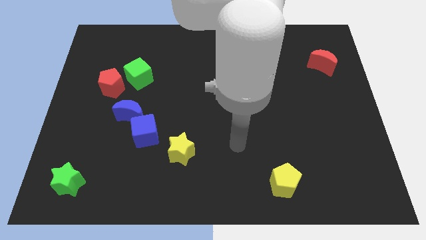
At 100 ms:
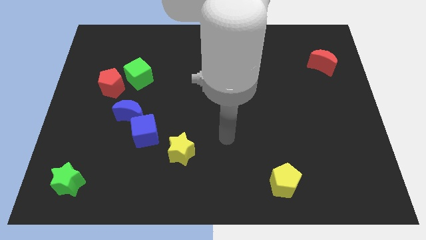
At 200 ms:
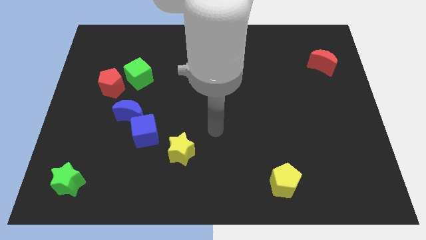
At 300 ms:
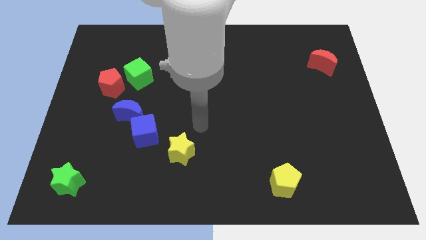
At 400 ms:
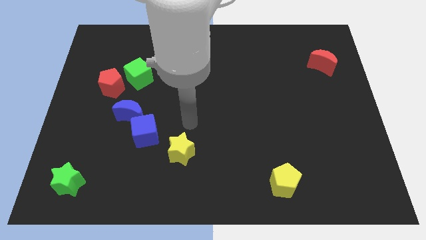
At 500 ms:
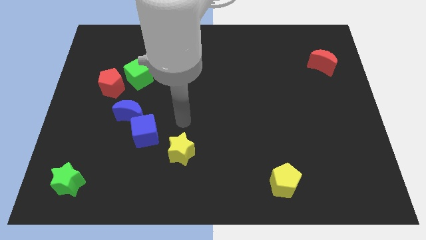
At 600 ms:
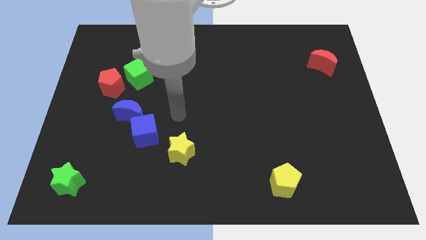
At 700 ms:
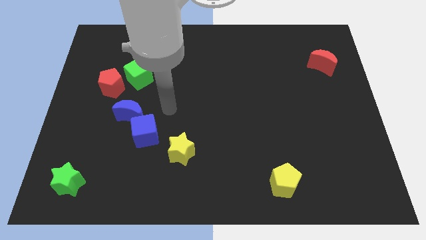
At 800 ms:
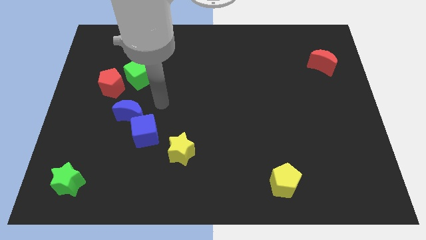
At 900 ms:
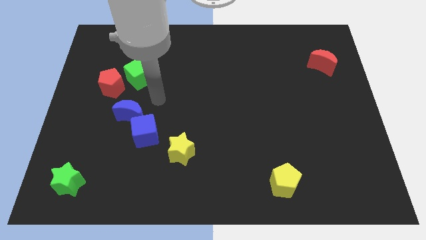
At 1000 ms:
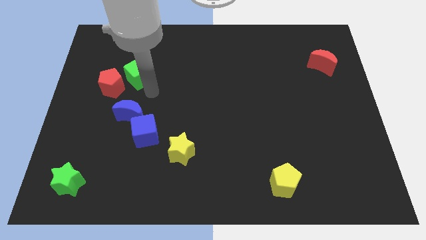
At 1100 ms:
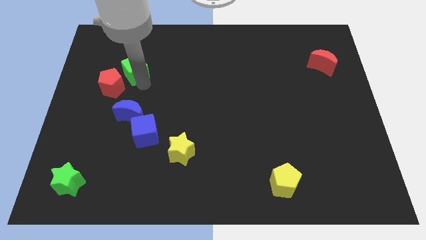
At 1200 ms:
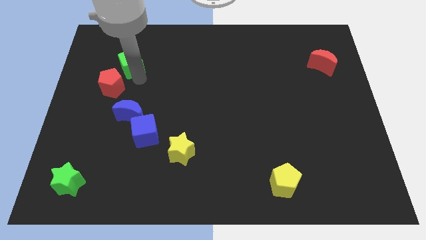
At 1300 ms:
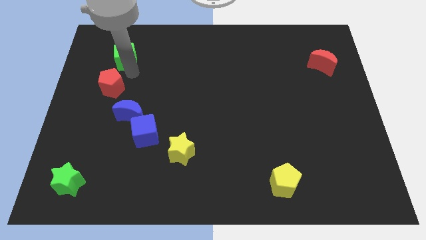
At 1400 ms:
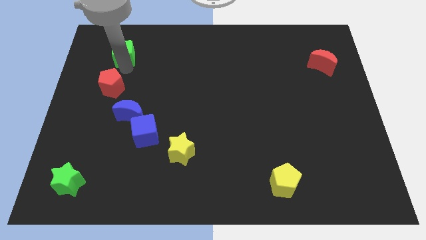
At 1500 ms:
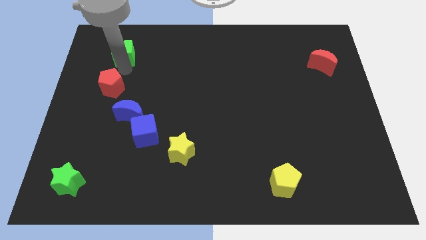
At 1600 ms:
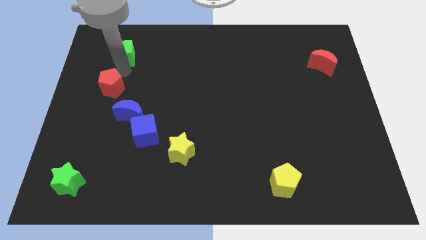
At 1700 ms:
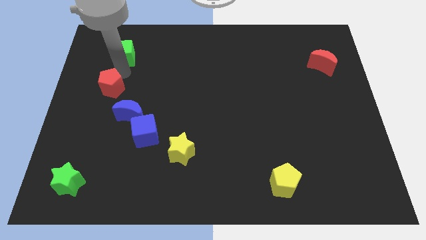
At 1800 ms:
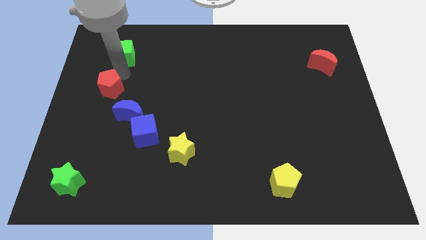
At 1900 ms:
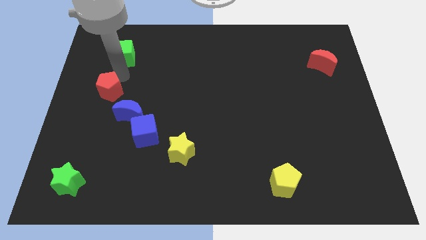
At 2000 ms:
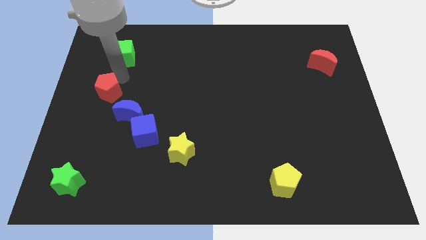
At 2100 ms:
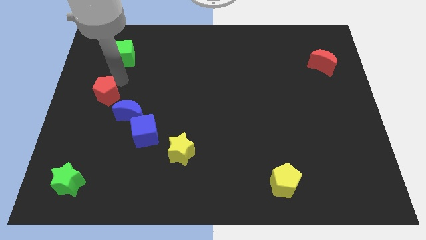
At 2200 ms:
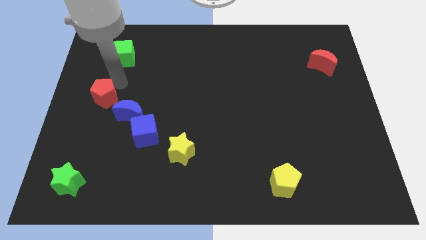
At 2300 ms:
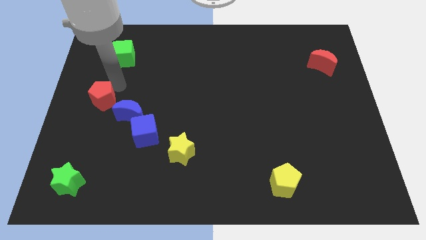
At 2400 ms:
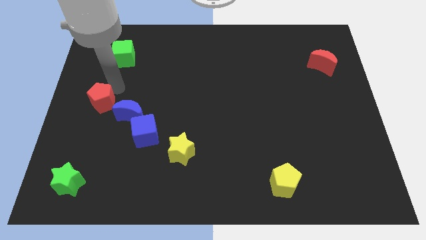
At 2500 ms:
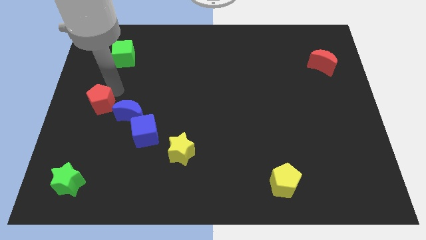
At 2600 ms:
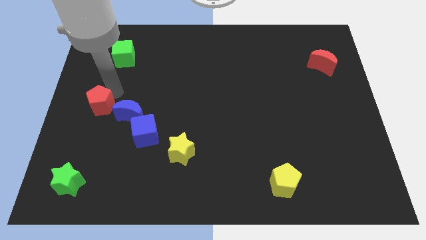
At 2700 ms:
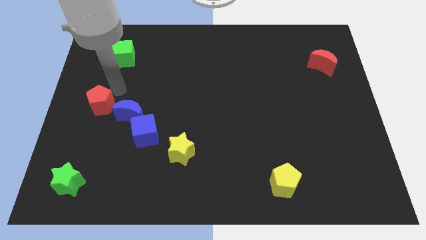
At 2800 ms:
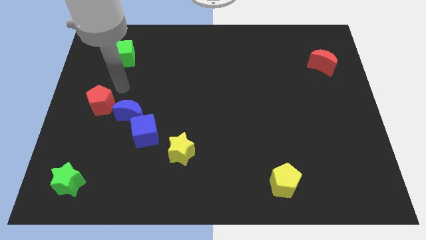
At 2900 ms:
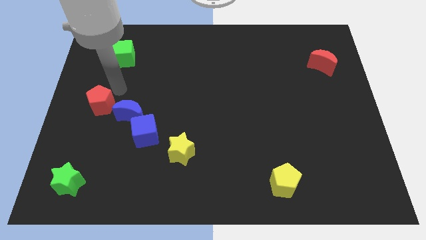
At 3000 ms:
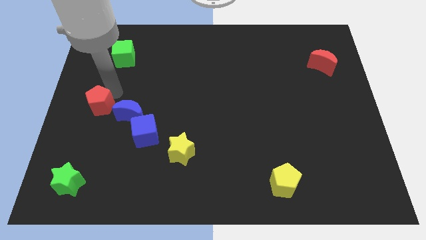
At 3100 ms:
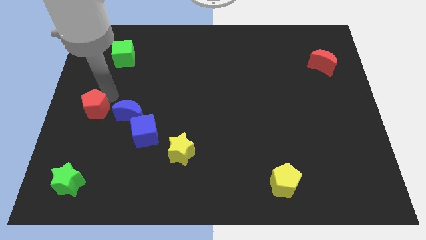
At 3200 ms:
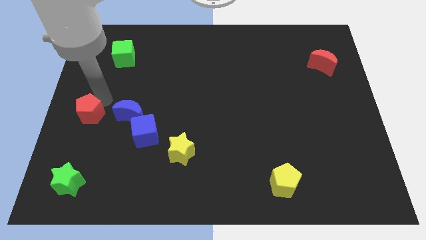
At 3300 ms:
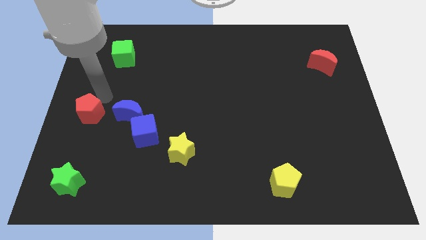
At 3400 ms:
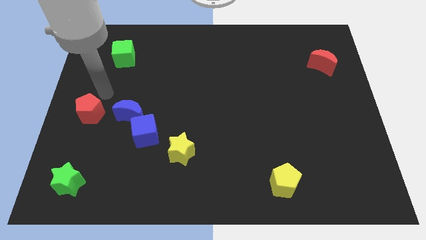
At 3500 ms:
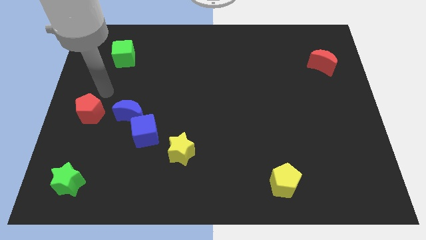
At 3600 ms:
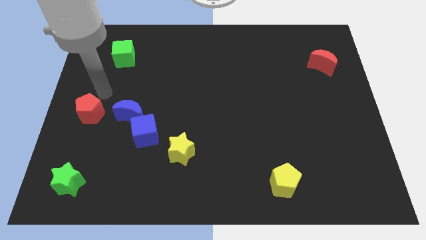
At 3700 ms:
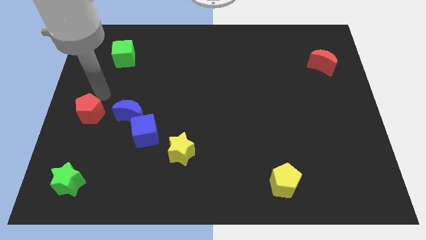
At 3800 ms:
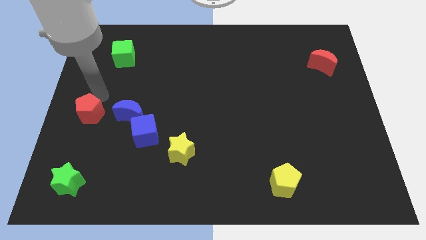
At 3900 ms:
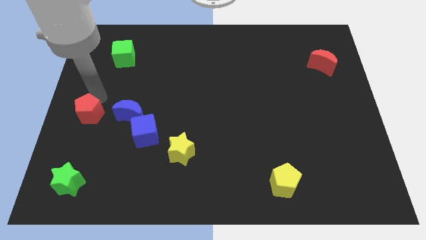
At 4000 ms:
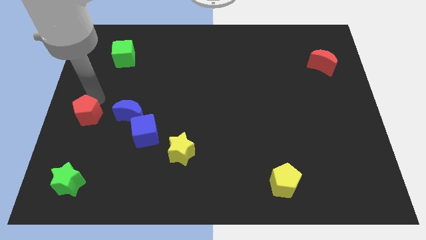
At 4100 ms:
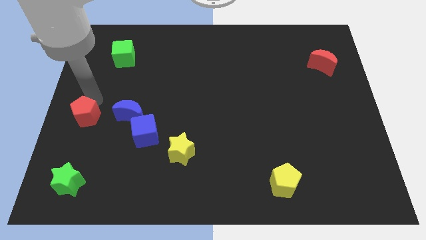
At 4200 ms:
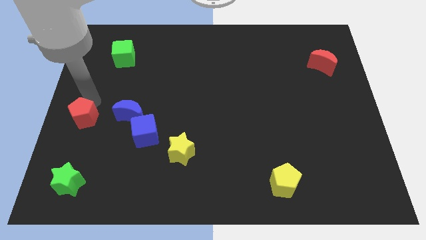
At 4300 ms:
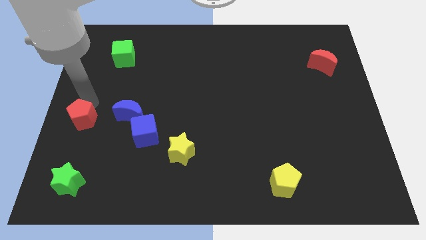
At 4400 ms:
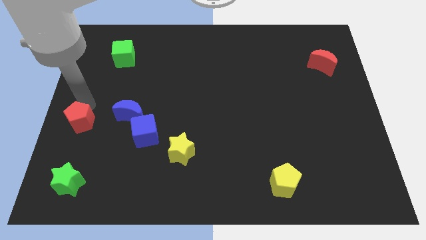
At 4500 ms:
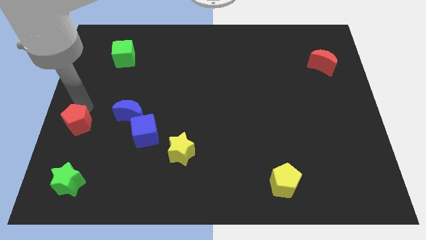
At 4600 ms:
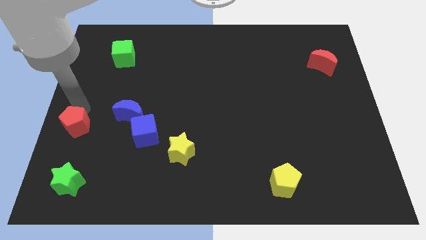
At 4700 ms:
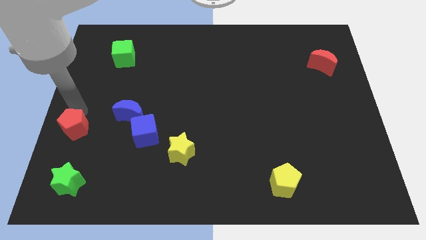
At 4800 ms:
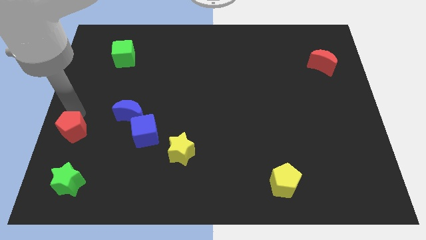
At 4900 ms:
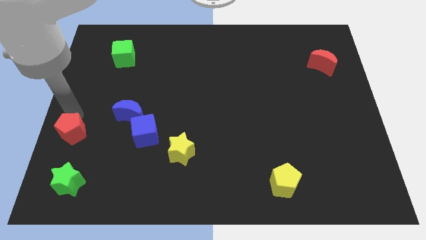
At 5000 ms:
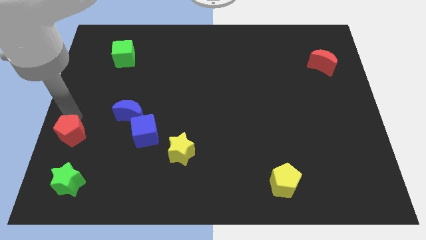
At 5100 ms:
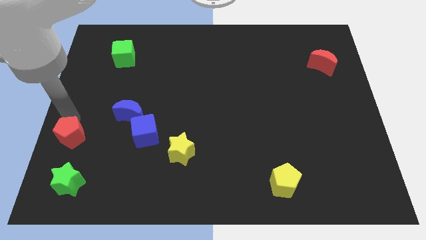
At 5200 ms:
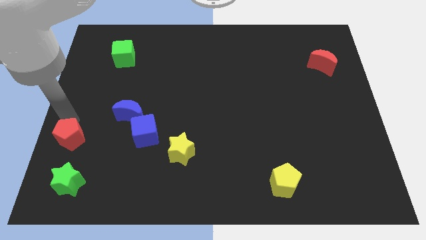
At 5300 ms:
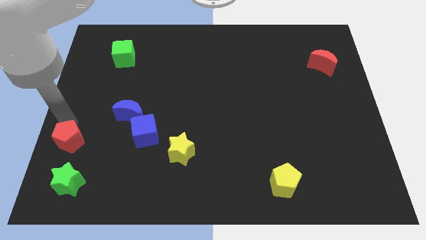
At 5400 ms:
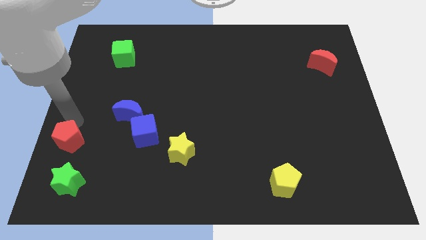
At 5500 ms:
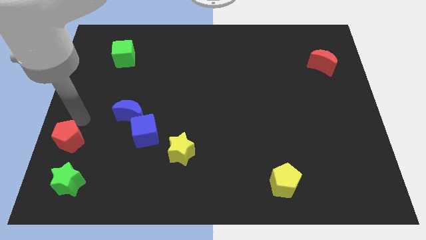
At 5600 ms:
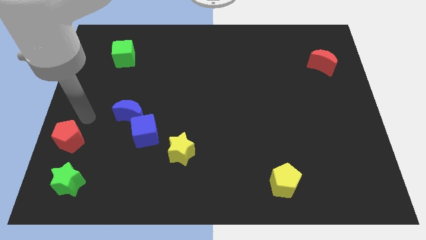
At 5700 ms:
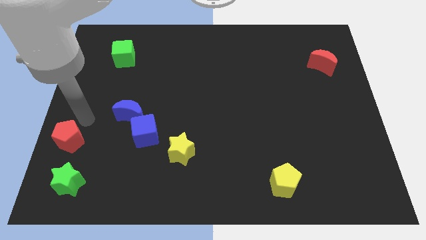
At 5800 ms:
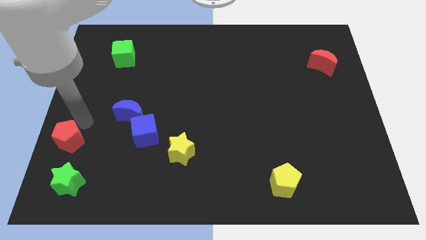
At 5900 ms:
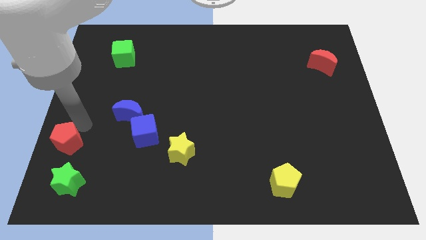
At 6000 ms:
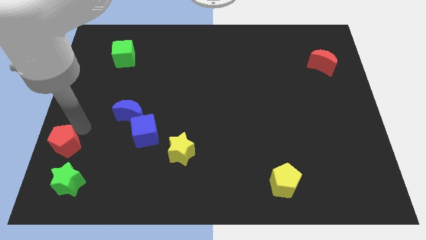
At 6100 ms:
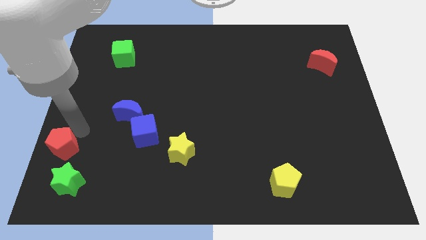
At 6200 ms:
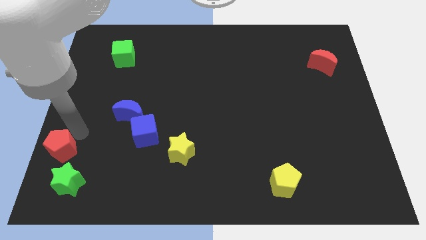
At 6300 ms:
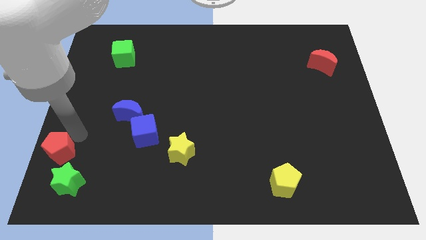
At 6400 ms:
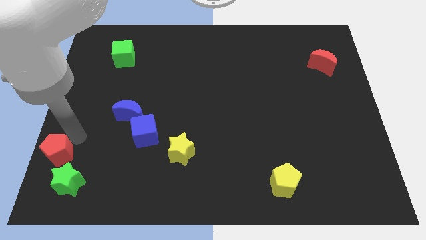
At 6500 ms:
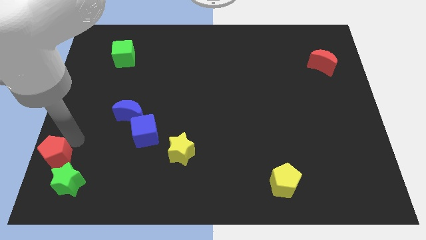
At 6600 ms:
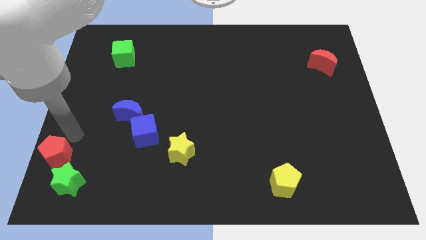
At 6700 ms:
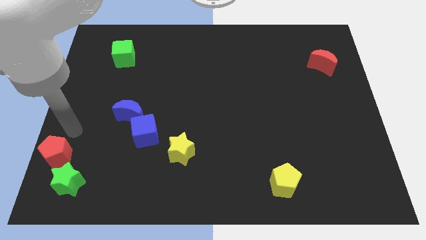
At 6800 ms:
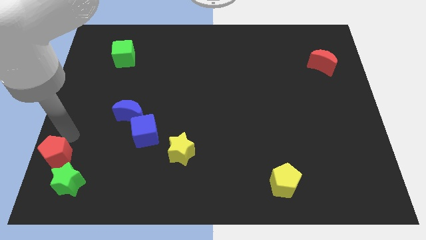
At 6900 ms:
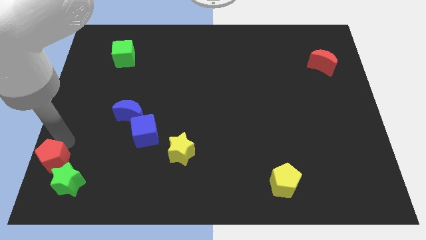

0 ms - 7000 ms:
push the red pentagon to the bottom left corner
